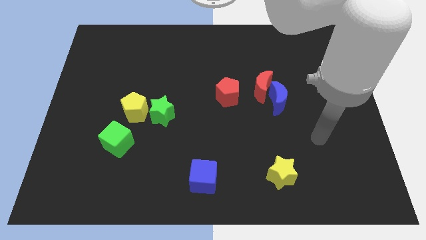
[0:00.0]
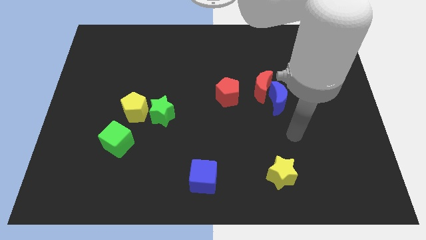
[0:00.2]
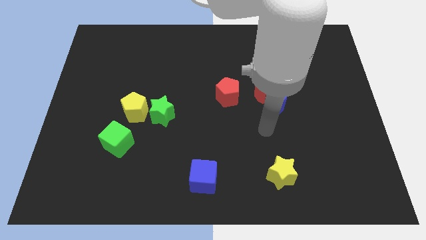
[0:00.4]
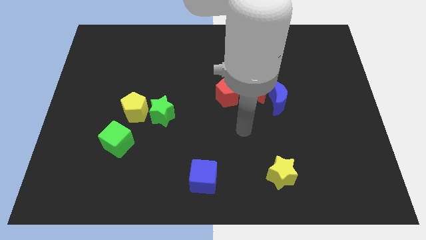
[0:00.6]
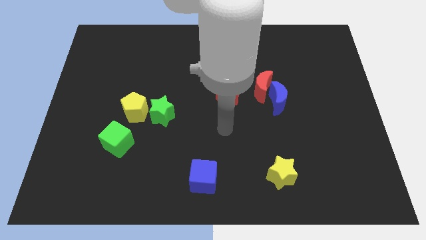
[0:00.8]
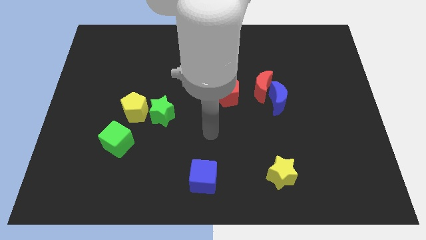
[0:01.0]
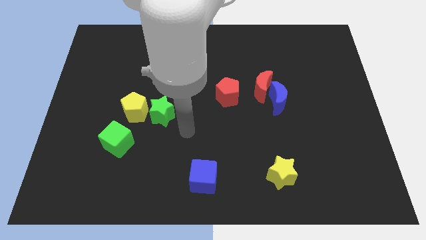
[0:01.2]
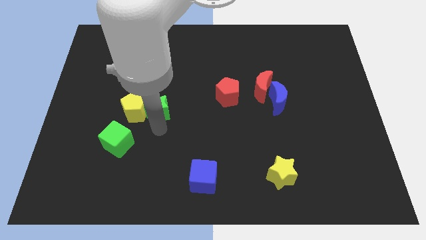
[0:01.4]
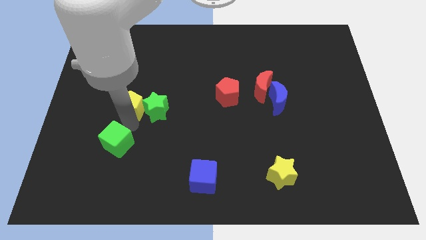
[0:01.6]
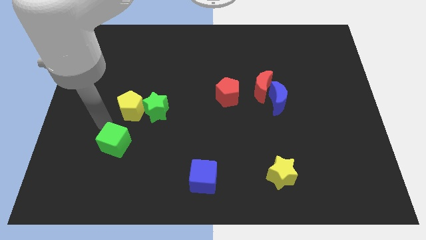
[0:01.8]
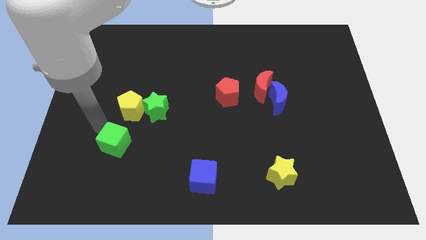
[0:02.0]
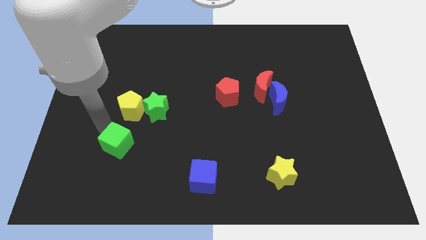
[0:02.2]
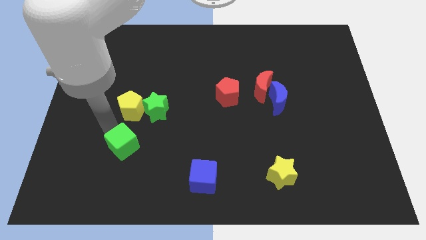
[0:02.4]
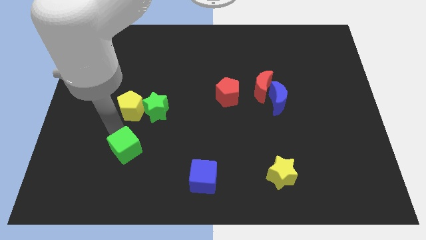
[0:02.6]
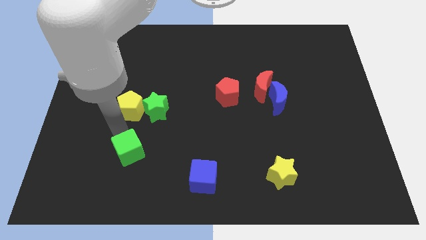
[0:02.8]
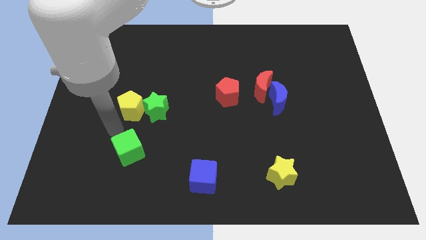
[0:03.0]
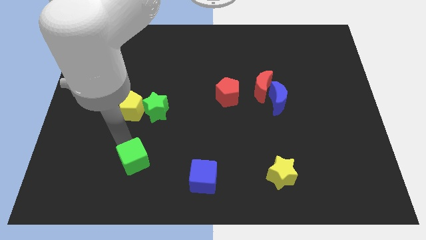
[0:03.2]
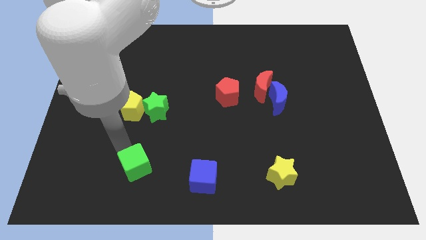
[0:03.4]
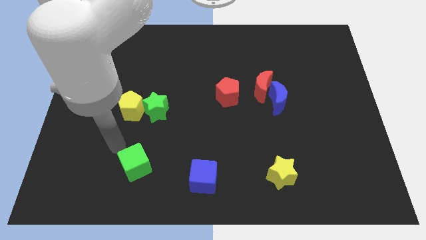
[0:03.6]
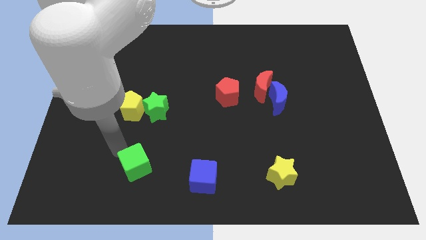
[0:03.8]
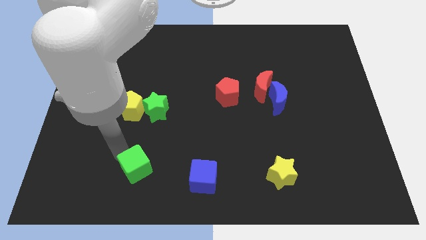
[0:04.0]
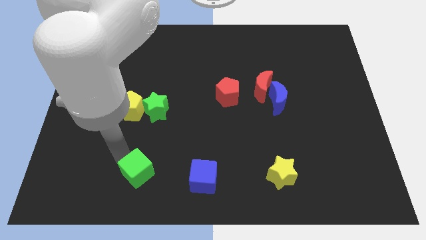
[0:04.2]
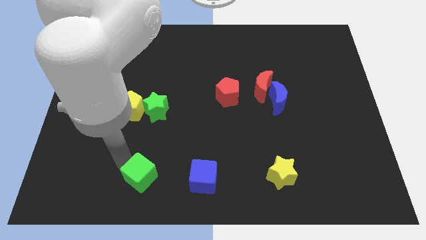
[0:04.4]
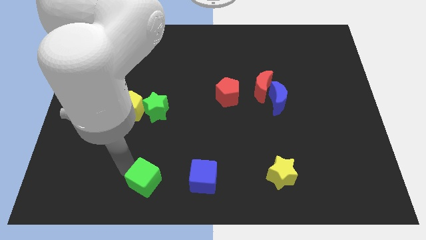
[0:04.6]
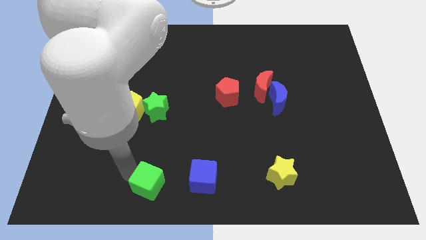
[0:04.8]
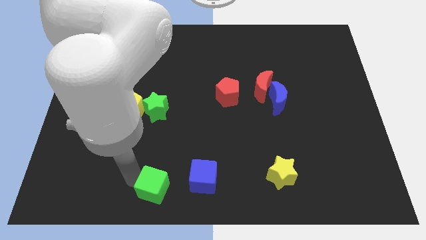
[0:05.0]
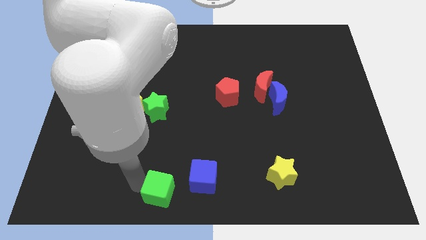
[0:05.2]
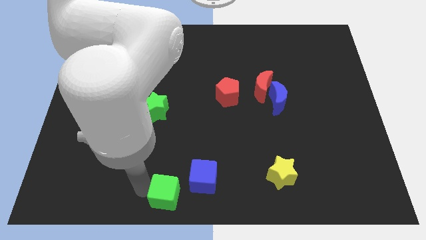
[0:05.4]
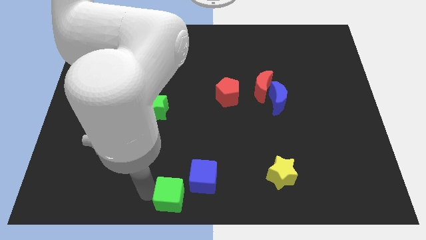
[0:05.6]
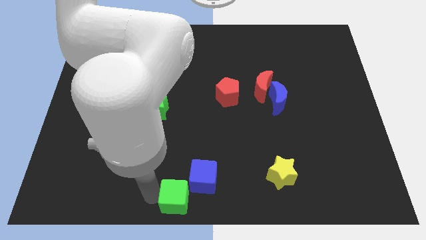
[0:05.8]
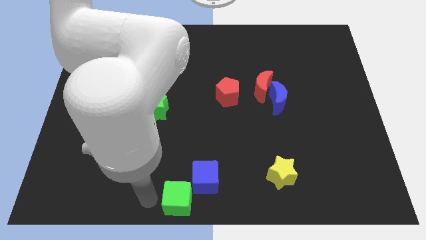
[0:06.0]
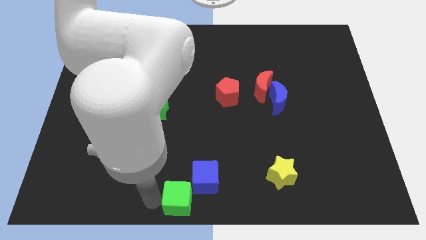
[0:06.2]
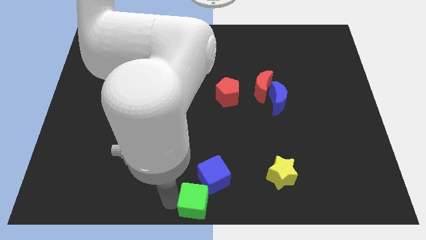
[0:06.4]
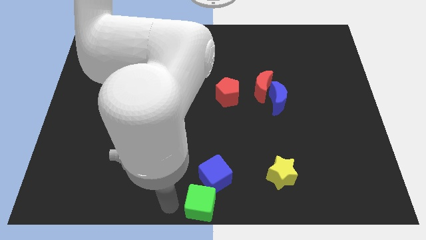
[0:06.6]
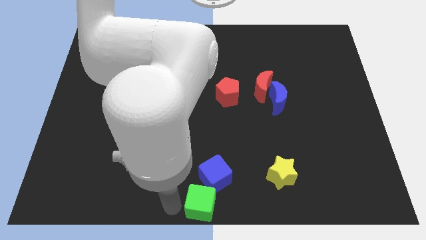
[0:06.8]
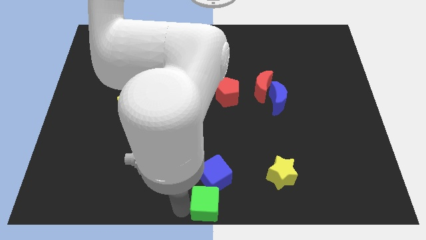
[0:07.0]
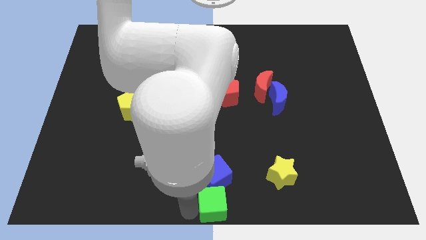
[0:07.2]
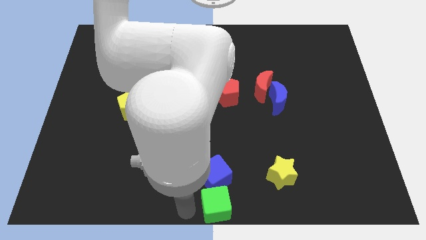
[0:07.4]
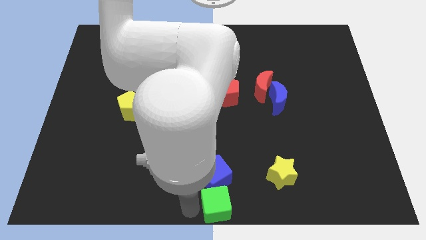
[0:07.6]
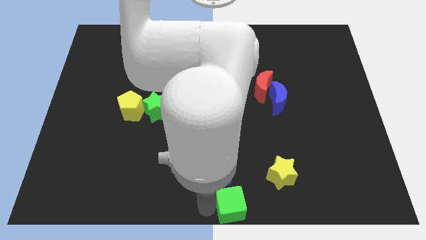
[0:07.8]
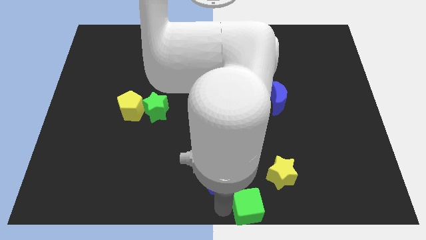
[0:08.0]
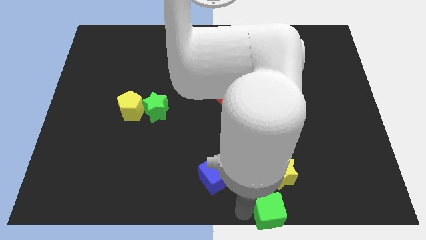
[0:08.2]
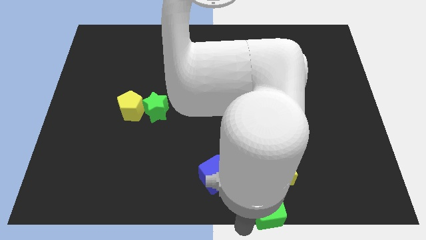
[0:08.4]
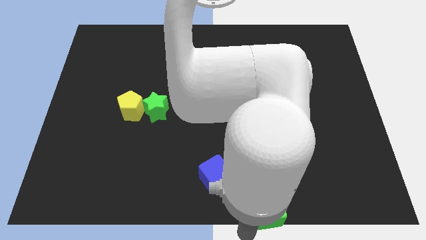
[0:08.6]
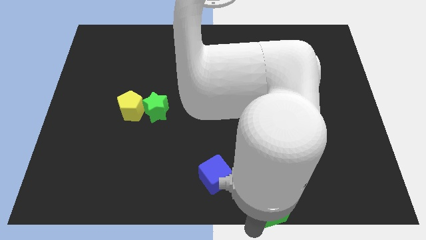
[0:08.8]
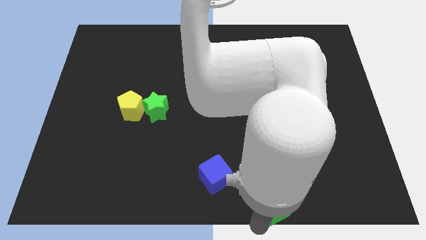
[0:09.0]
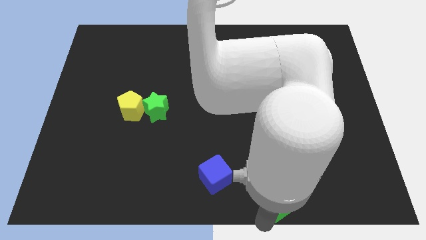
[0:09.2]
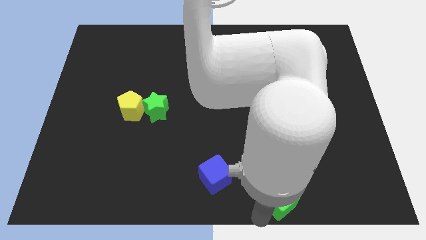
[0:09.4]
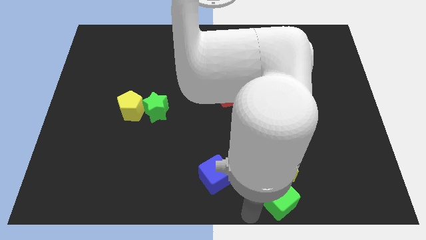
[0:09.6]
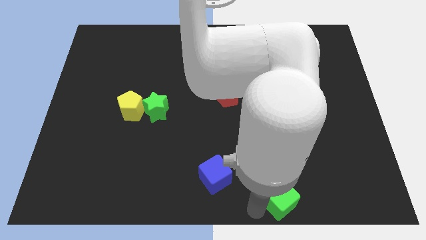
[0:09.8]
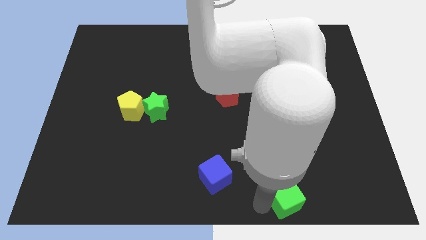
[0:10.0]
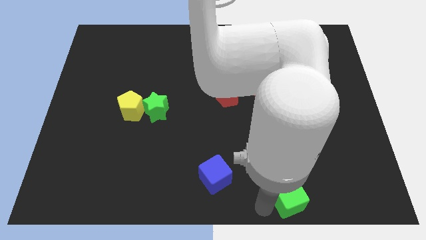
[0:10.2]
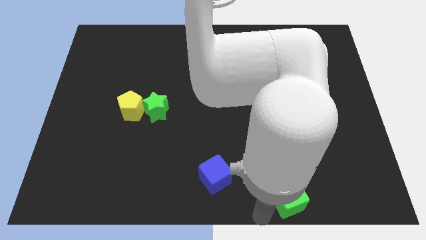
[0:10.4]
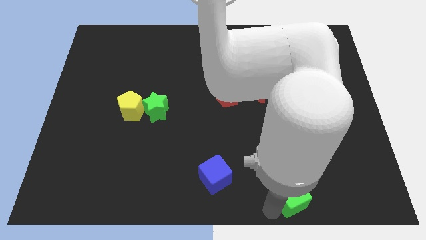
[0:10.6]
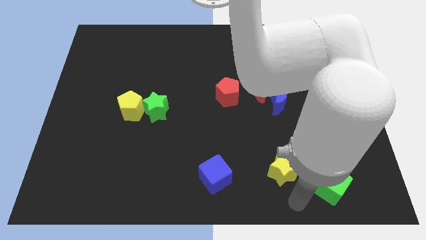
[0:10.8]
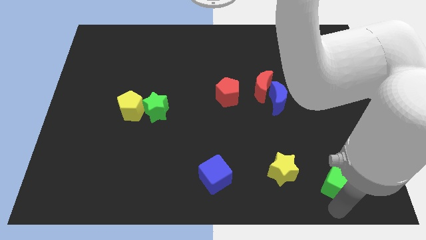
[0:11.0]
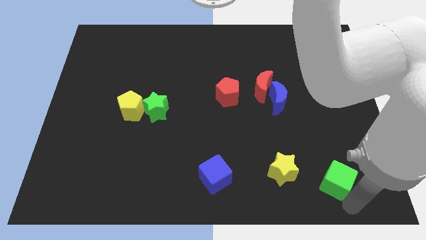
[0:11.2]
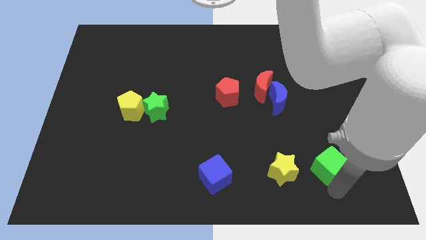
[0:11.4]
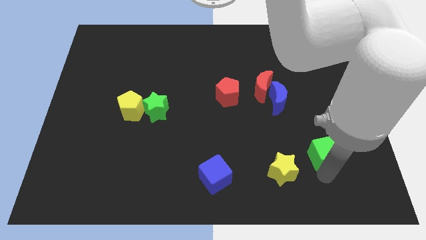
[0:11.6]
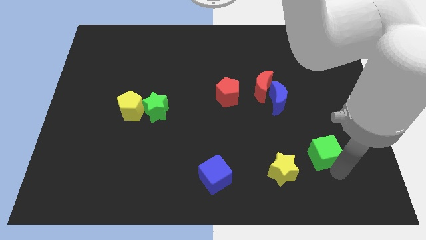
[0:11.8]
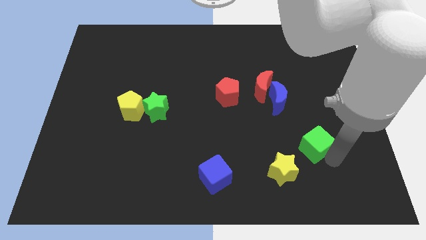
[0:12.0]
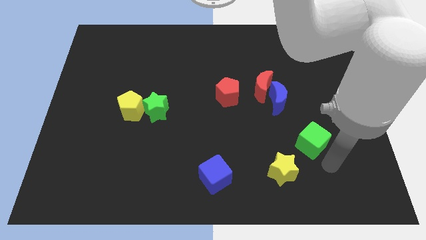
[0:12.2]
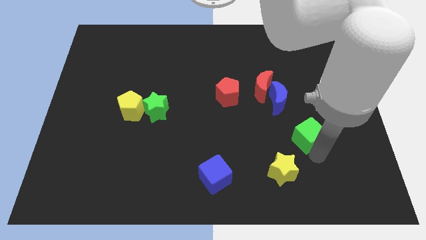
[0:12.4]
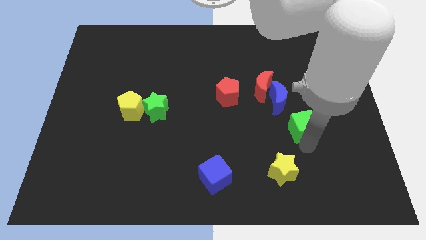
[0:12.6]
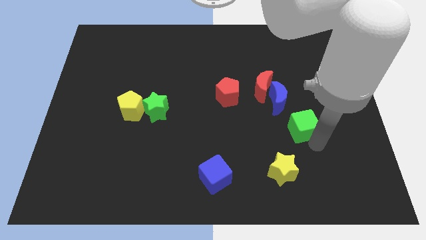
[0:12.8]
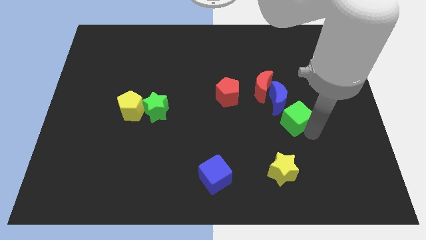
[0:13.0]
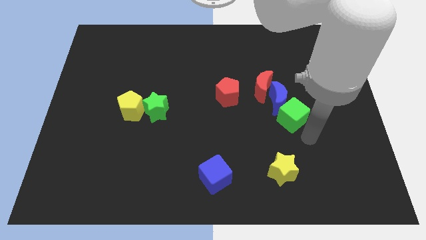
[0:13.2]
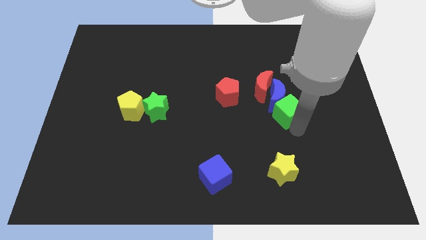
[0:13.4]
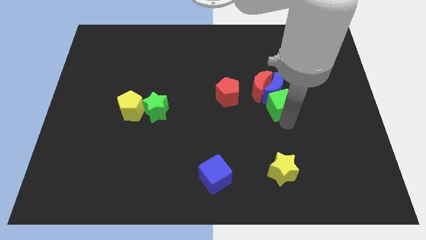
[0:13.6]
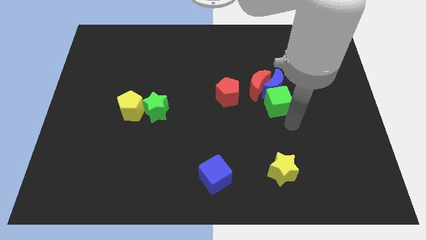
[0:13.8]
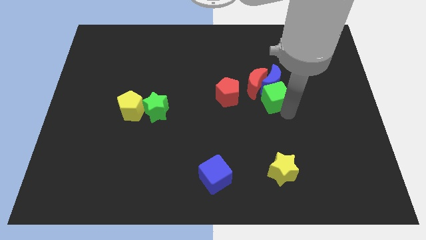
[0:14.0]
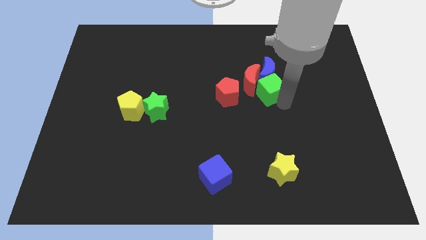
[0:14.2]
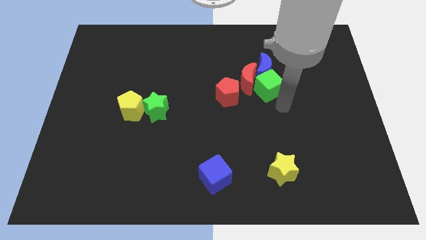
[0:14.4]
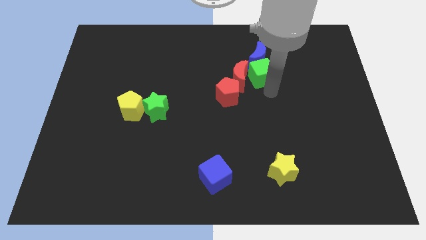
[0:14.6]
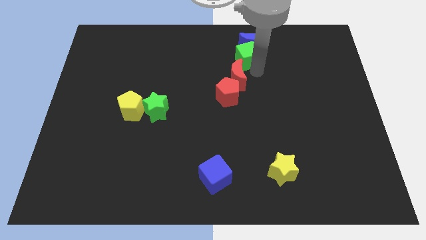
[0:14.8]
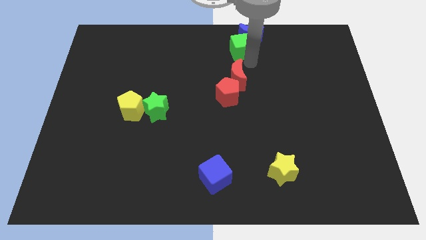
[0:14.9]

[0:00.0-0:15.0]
put the green cube to the top
